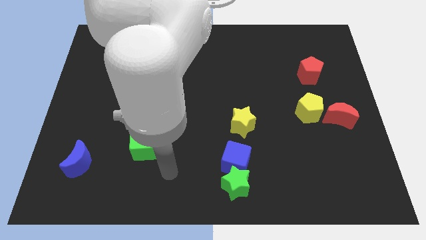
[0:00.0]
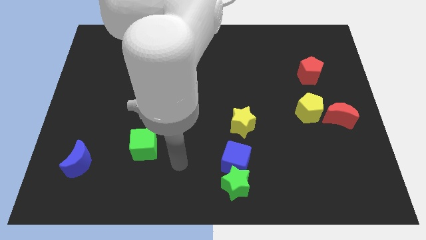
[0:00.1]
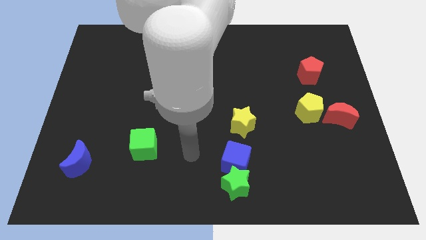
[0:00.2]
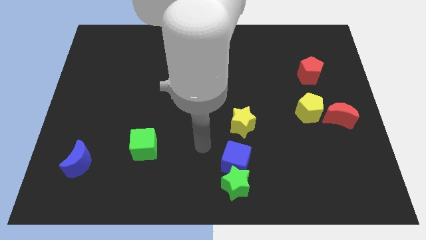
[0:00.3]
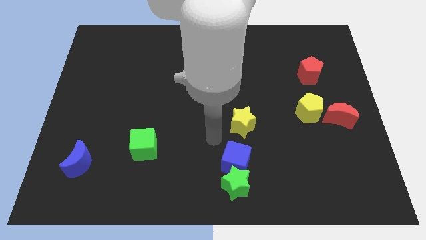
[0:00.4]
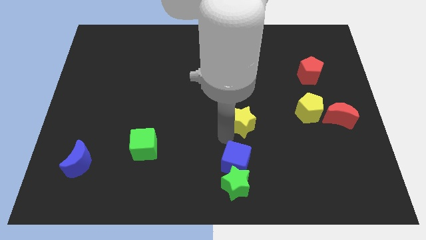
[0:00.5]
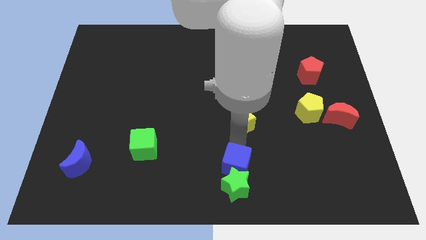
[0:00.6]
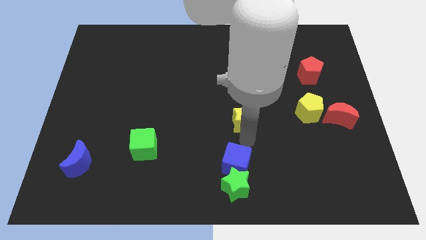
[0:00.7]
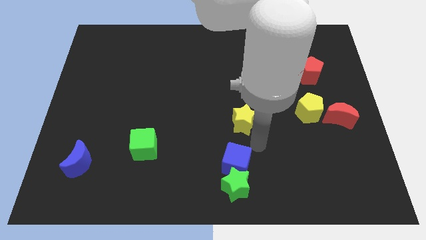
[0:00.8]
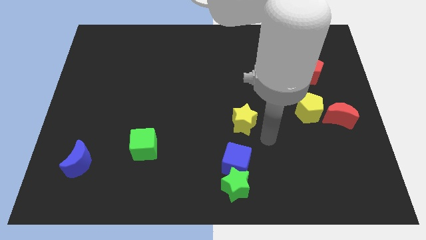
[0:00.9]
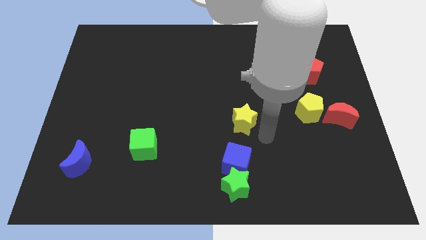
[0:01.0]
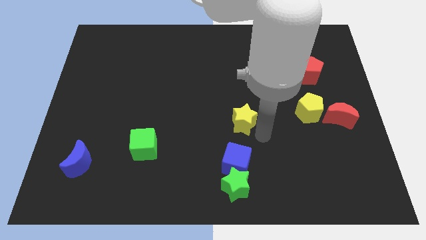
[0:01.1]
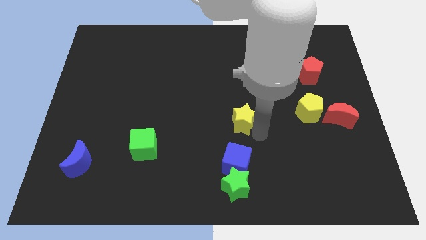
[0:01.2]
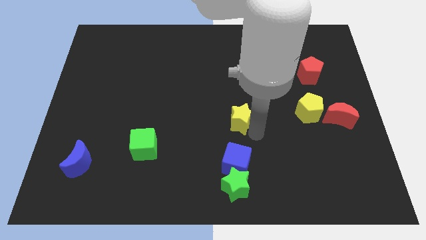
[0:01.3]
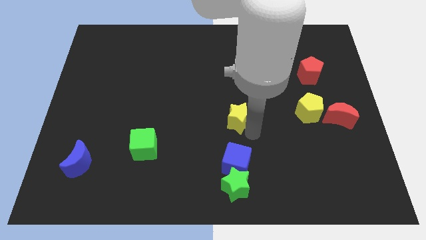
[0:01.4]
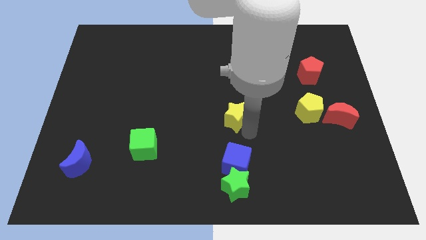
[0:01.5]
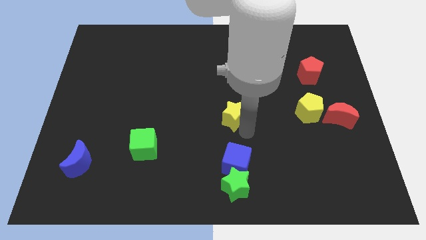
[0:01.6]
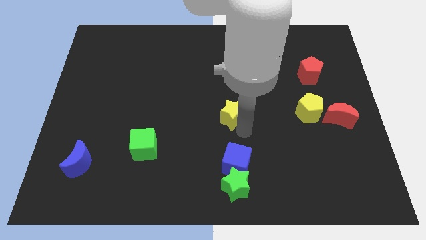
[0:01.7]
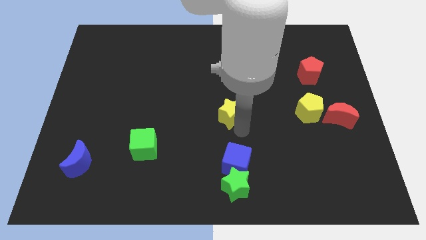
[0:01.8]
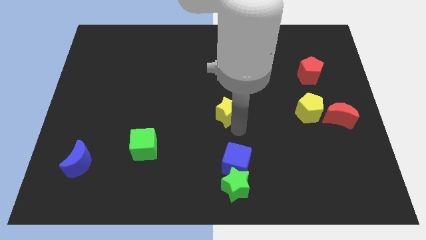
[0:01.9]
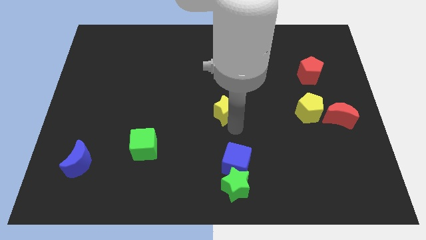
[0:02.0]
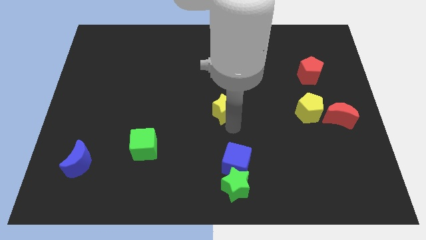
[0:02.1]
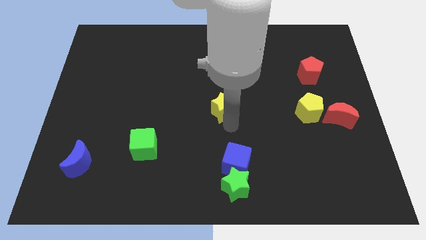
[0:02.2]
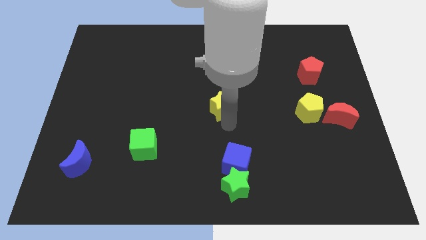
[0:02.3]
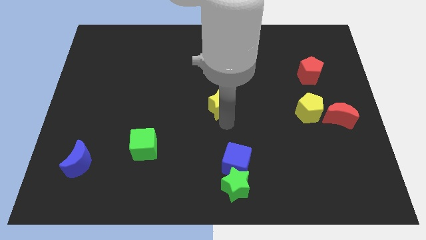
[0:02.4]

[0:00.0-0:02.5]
push the yellow star slightly diagonally up and to the left

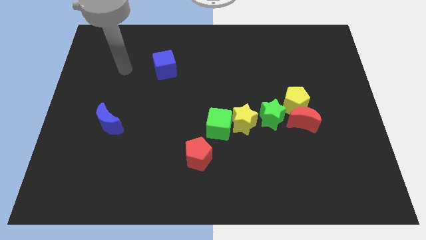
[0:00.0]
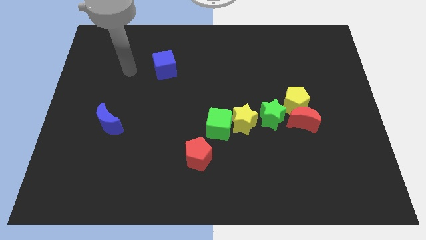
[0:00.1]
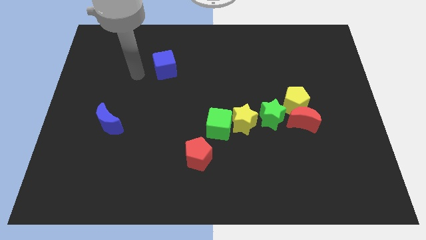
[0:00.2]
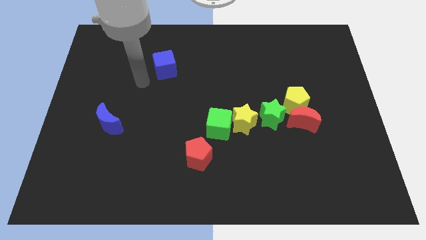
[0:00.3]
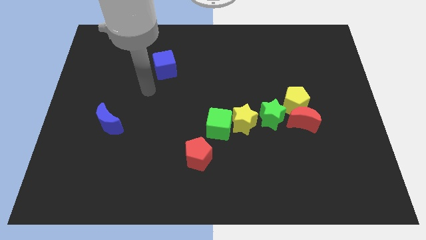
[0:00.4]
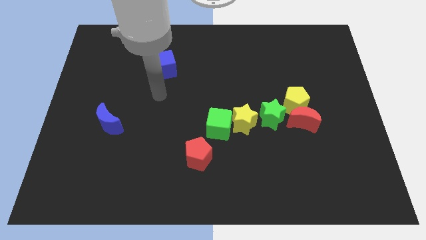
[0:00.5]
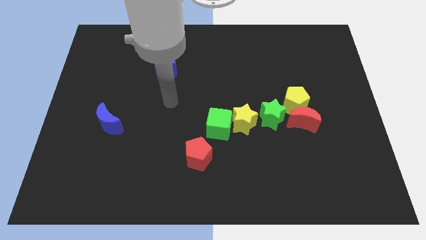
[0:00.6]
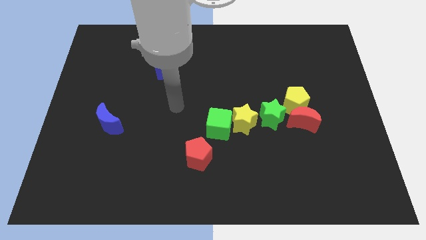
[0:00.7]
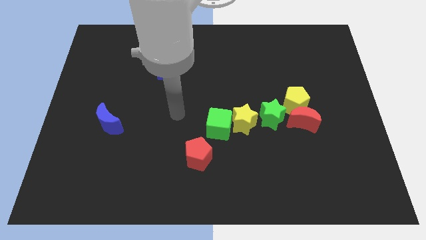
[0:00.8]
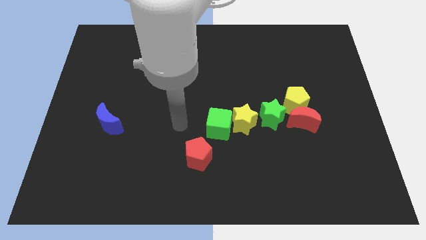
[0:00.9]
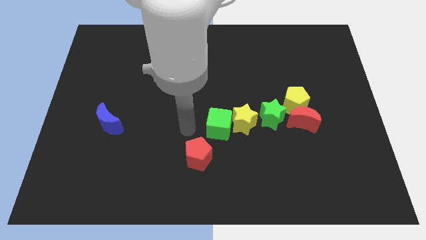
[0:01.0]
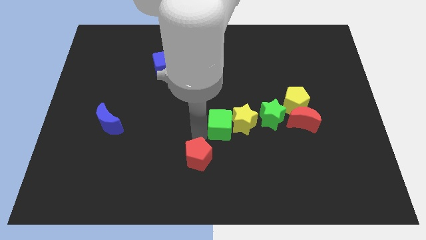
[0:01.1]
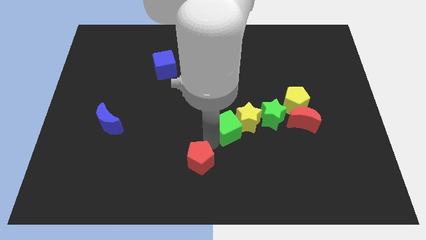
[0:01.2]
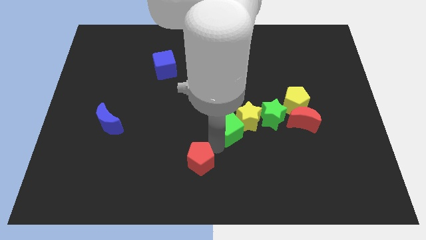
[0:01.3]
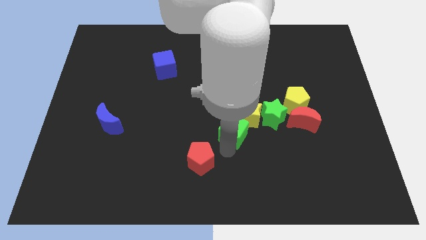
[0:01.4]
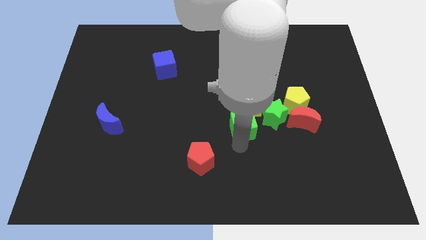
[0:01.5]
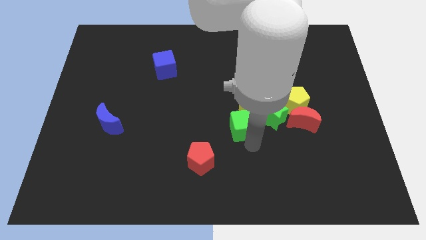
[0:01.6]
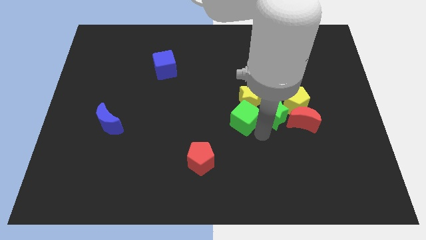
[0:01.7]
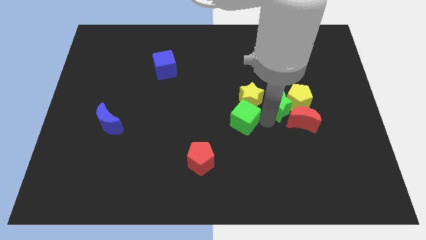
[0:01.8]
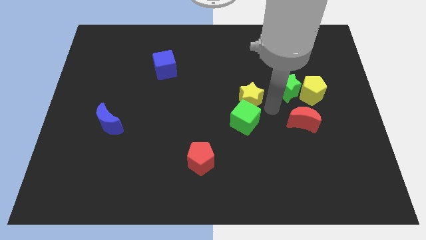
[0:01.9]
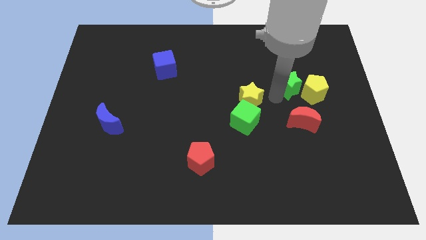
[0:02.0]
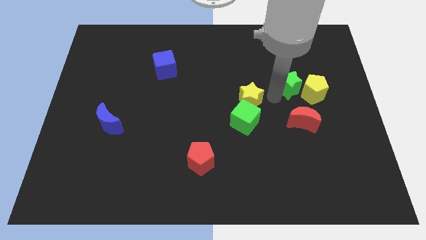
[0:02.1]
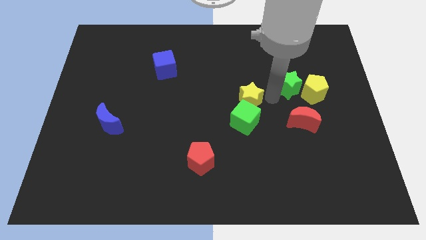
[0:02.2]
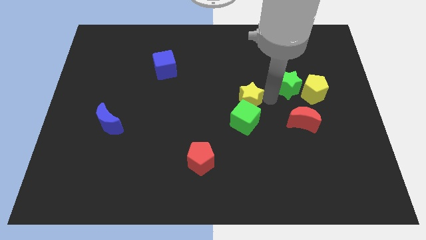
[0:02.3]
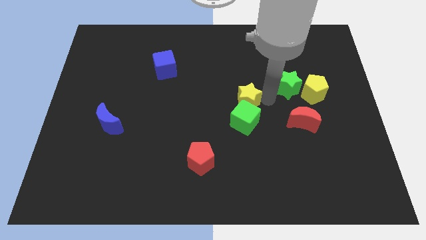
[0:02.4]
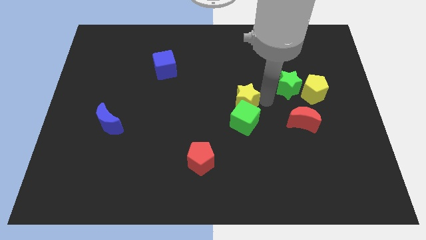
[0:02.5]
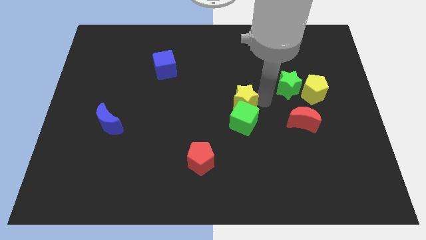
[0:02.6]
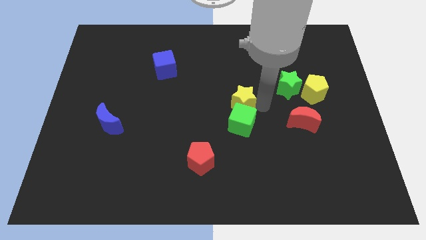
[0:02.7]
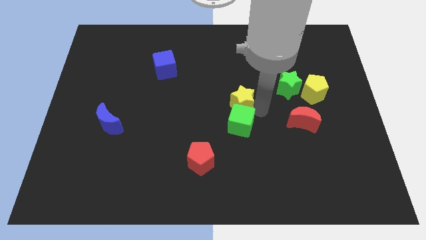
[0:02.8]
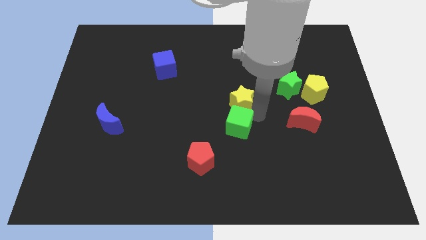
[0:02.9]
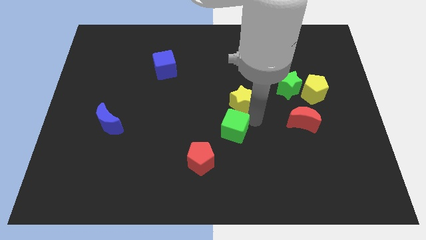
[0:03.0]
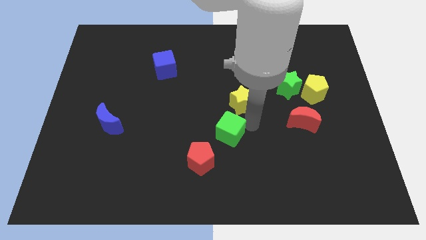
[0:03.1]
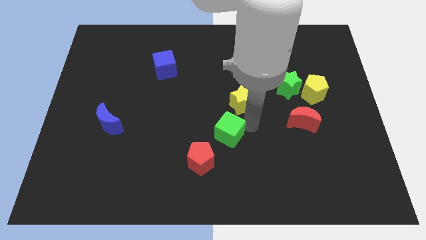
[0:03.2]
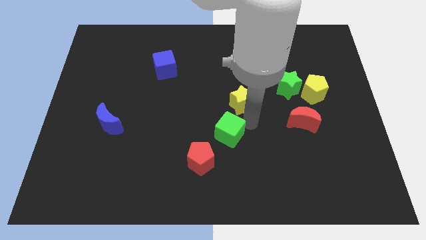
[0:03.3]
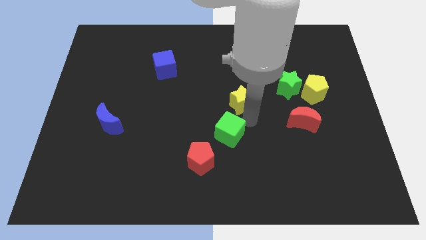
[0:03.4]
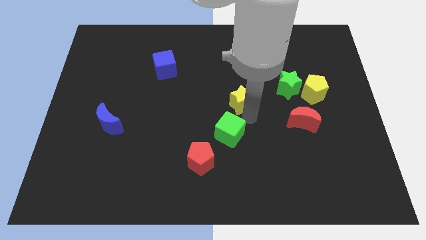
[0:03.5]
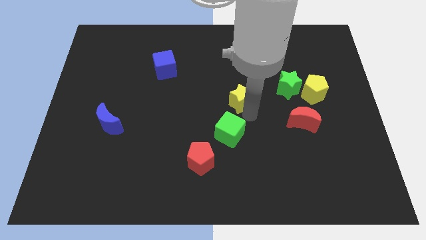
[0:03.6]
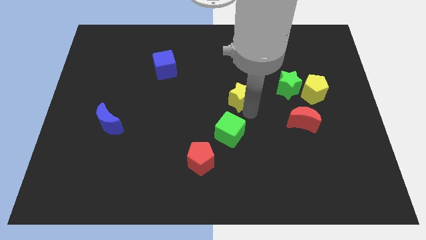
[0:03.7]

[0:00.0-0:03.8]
slide the yellow star somewhat up

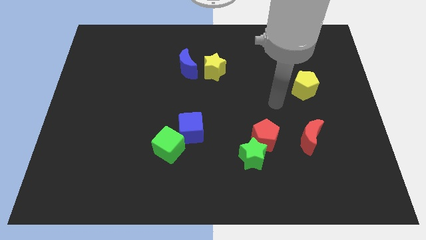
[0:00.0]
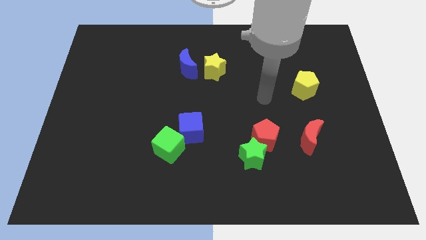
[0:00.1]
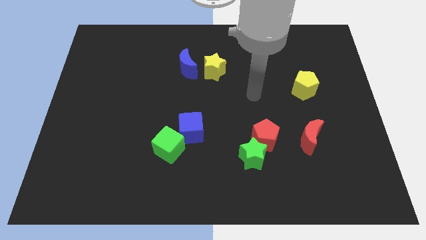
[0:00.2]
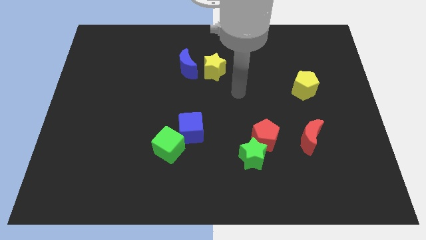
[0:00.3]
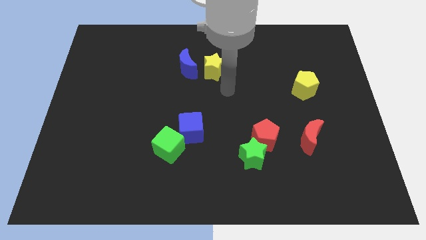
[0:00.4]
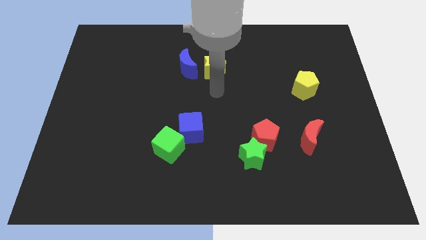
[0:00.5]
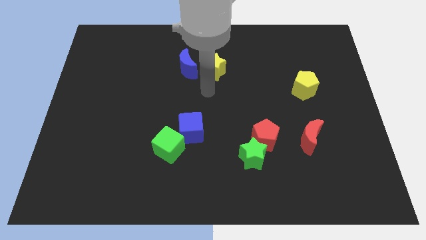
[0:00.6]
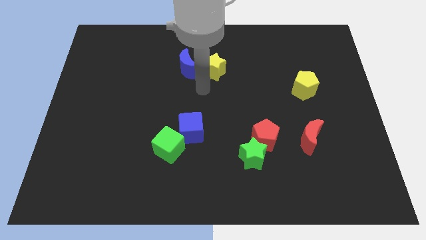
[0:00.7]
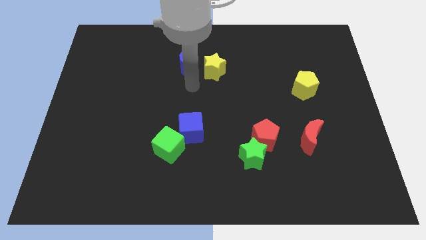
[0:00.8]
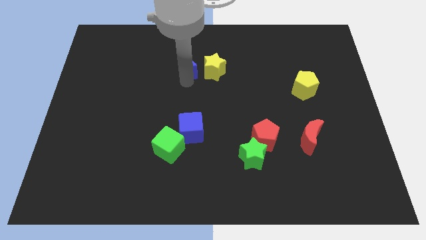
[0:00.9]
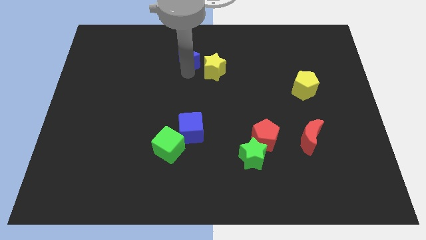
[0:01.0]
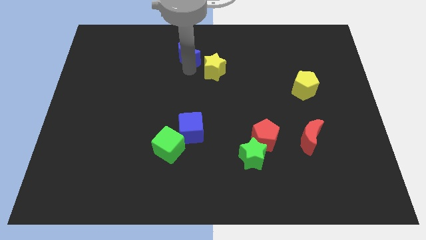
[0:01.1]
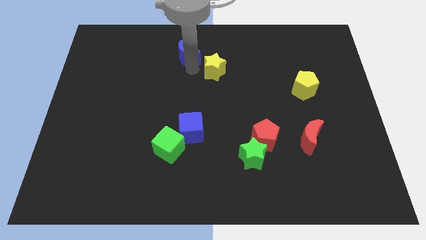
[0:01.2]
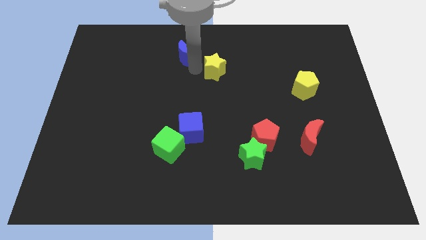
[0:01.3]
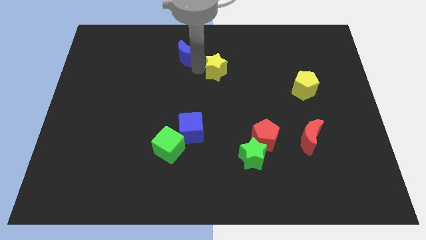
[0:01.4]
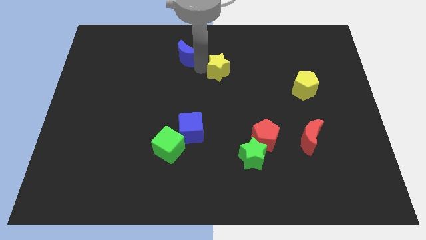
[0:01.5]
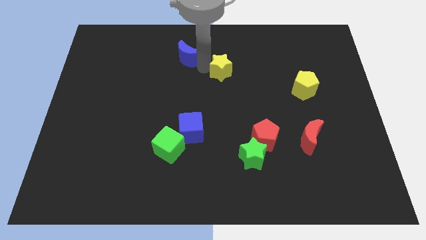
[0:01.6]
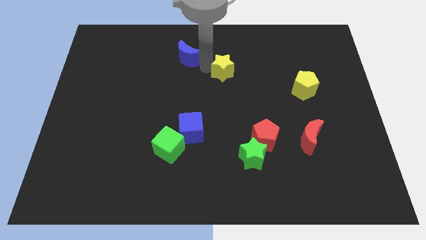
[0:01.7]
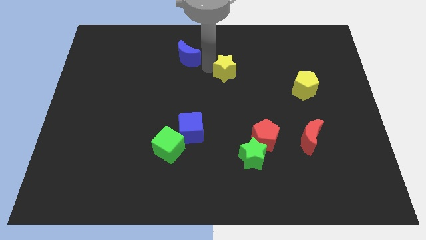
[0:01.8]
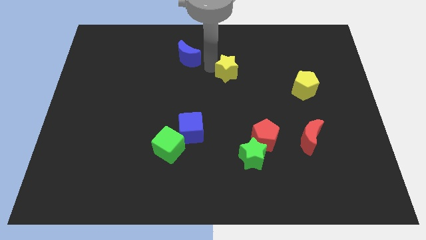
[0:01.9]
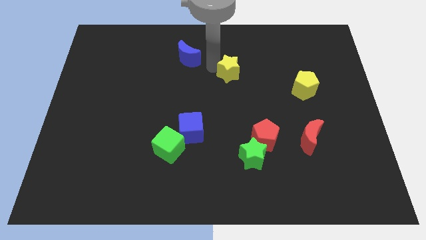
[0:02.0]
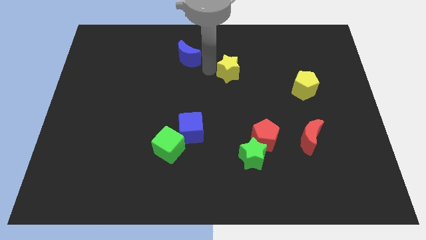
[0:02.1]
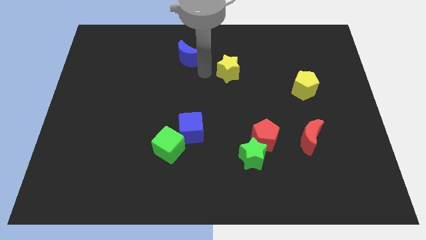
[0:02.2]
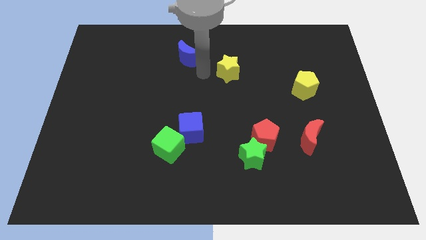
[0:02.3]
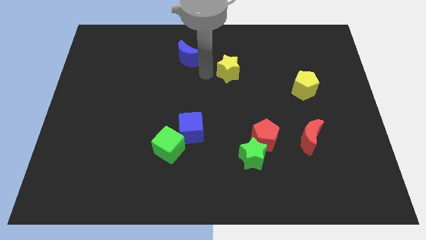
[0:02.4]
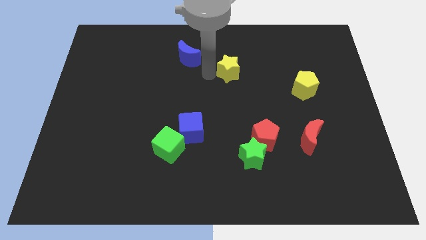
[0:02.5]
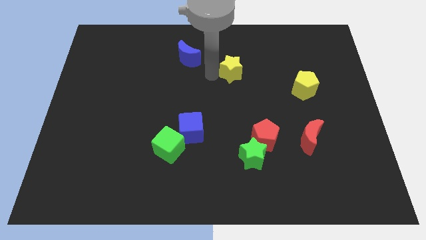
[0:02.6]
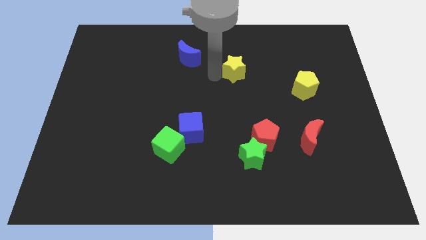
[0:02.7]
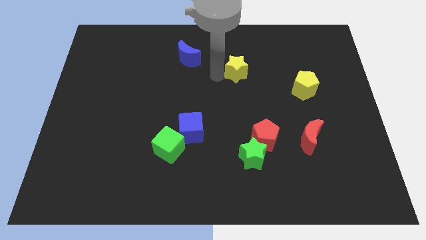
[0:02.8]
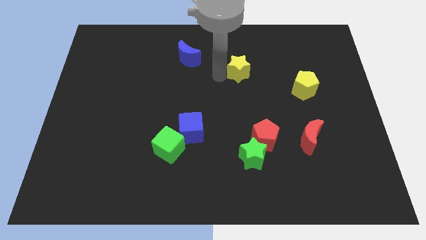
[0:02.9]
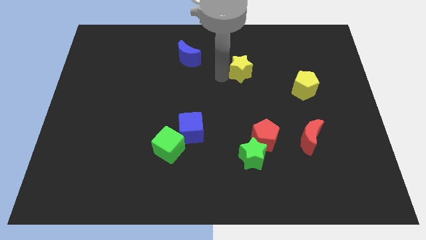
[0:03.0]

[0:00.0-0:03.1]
push the yellow star a little right
